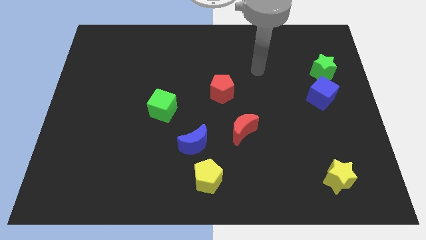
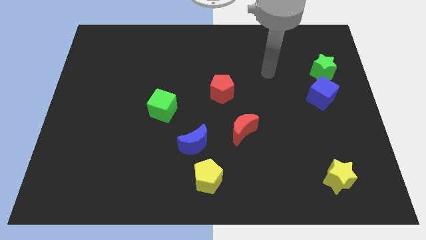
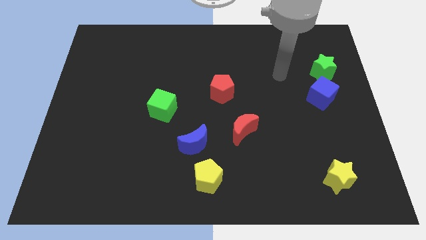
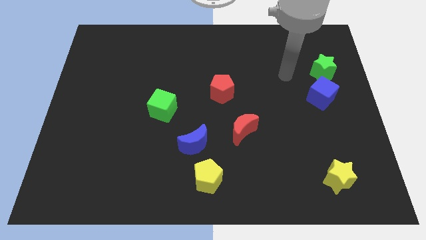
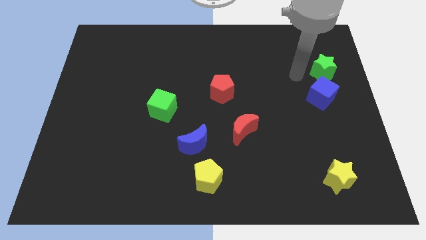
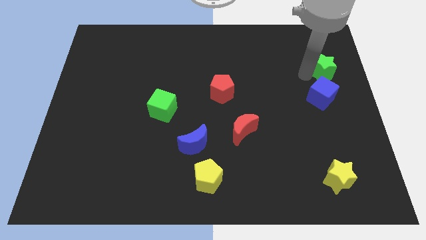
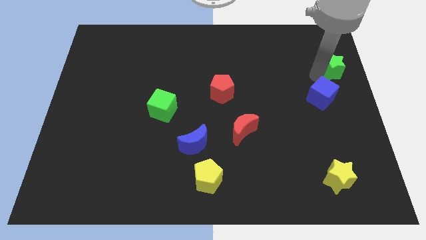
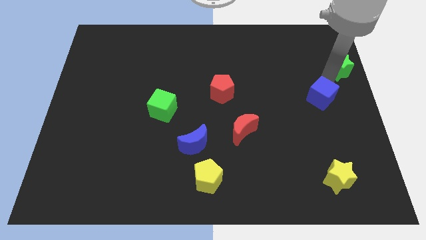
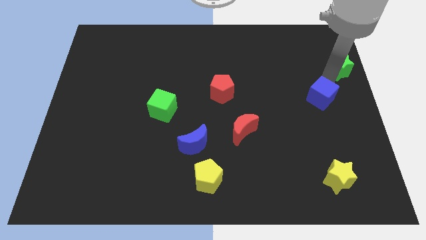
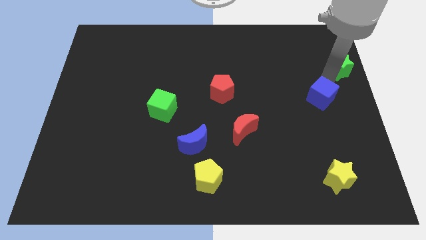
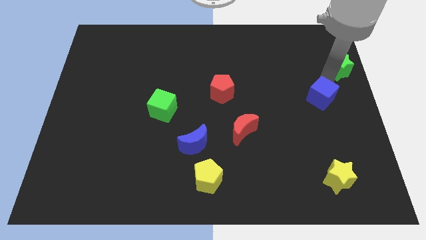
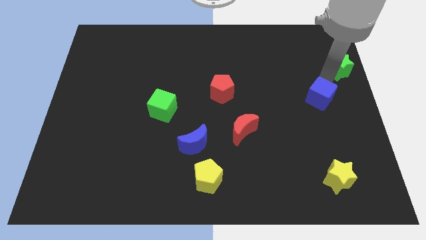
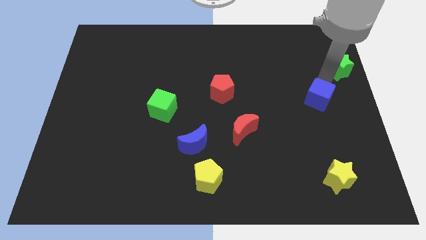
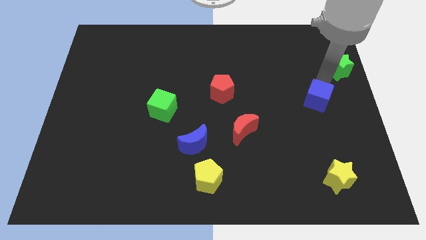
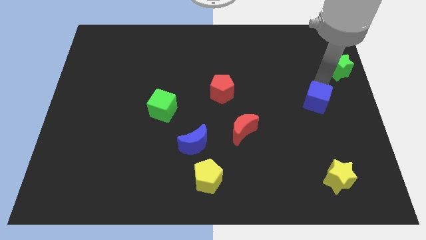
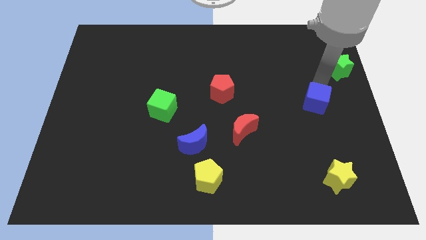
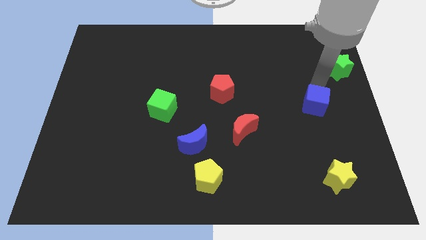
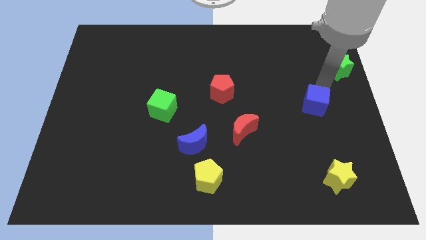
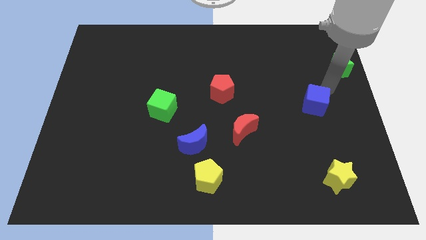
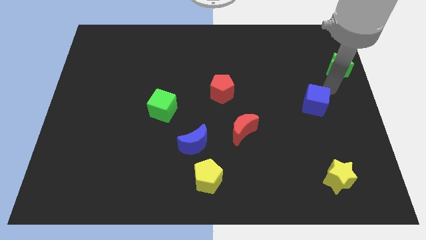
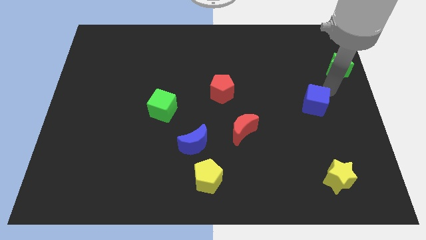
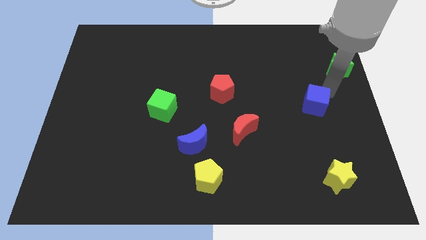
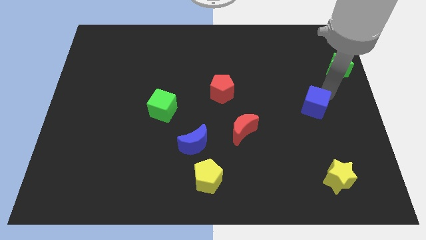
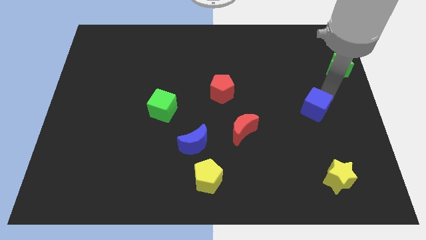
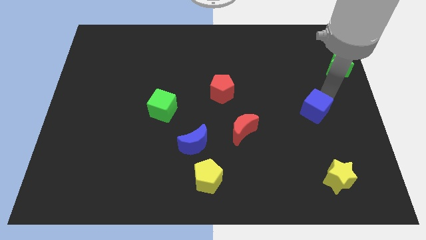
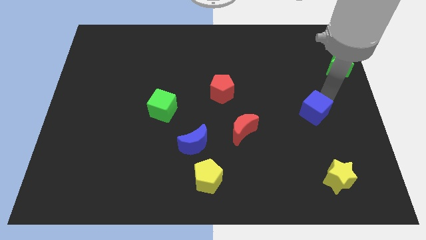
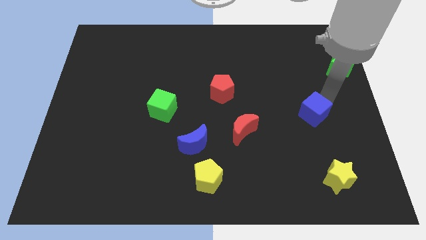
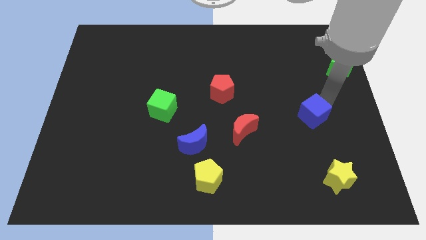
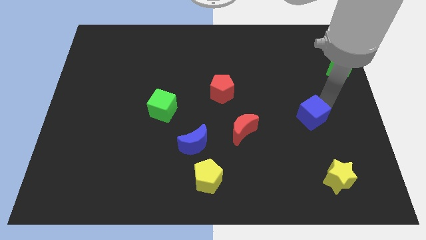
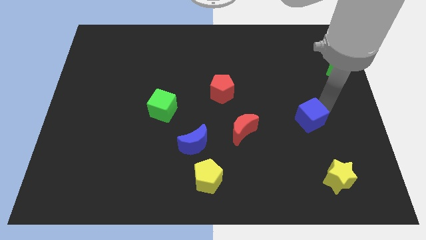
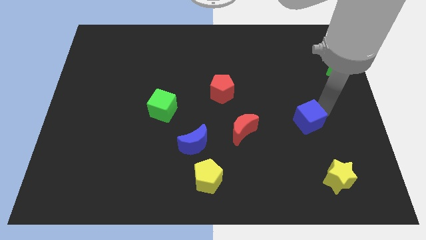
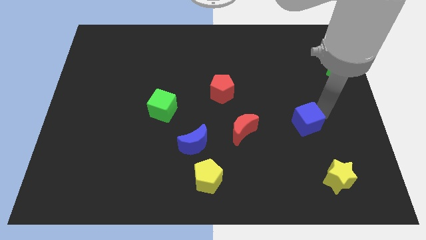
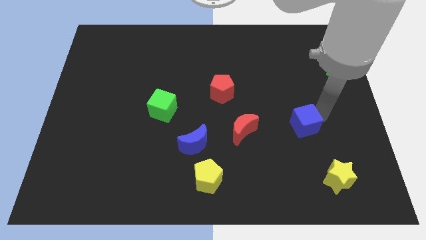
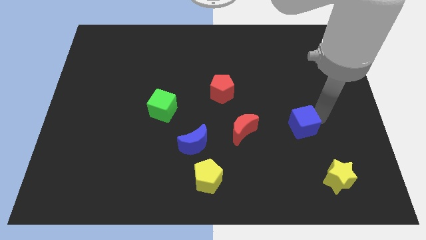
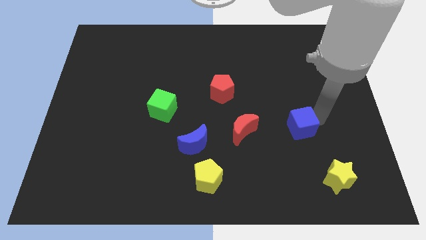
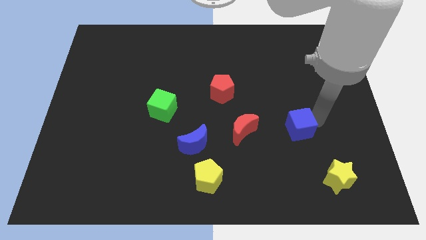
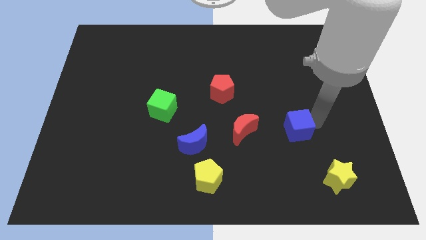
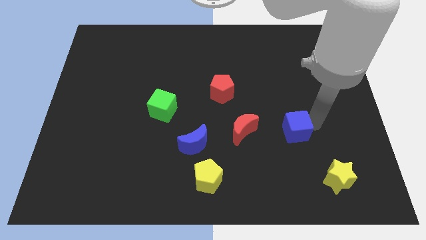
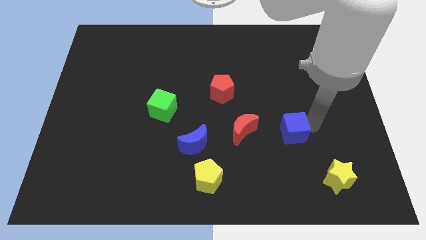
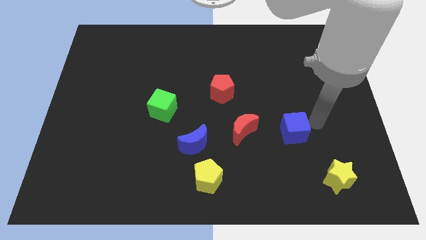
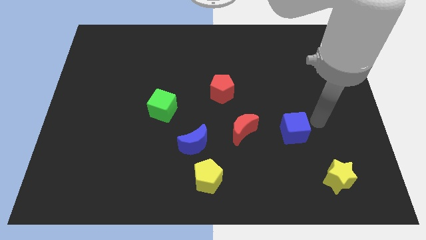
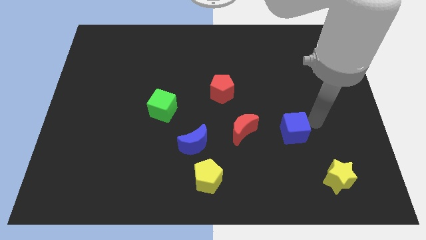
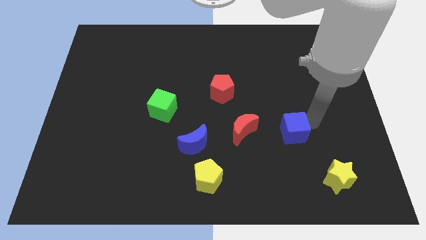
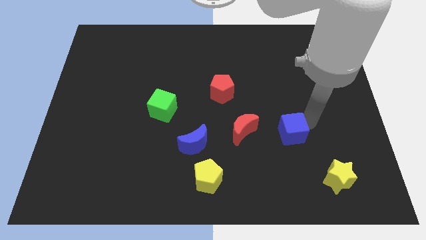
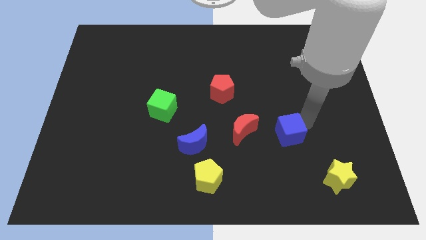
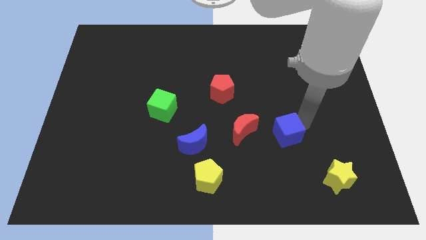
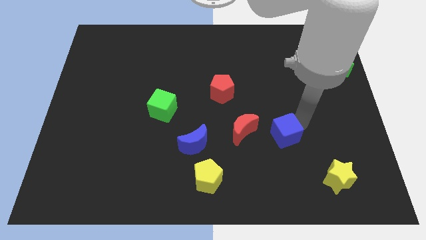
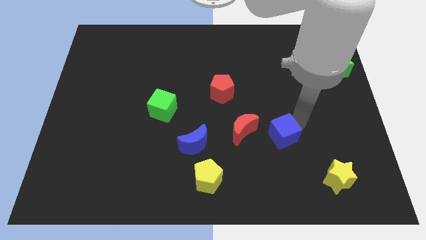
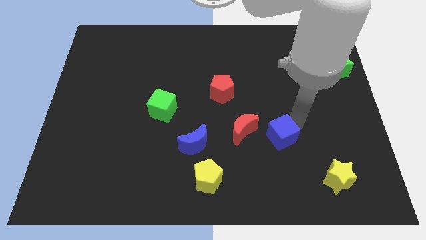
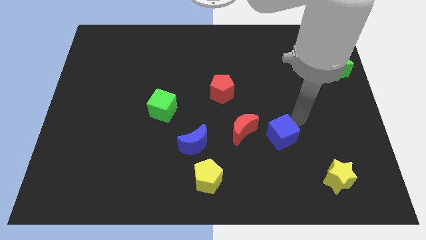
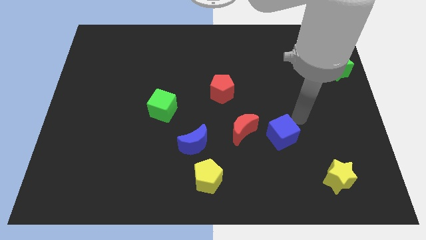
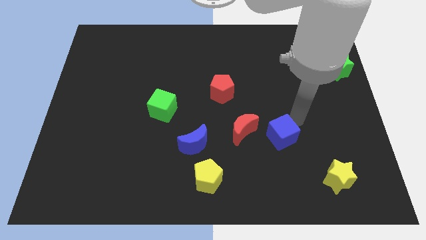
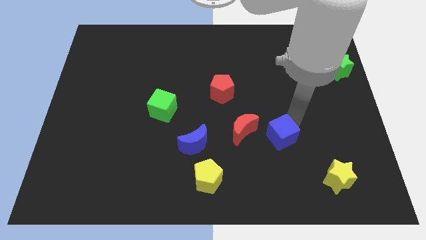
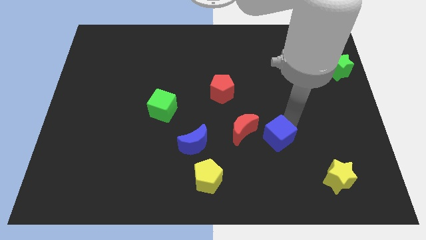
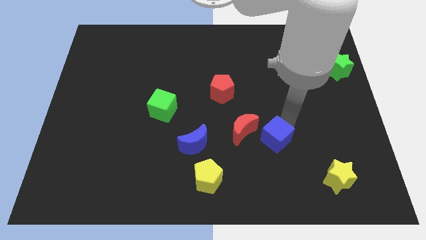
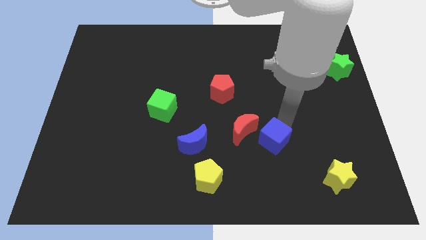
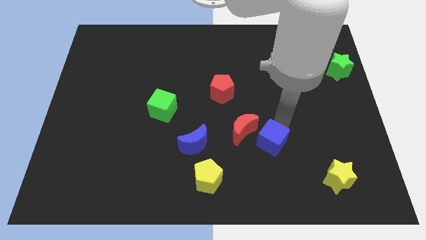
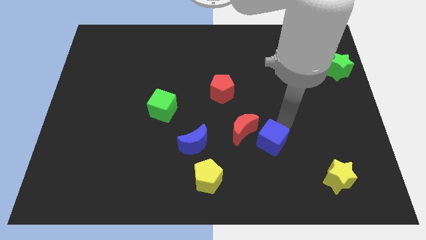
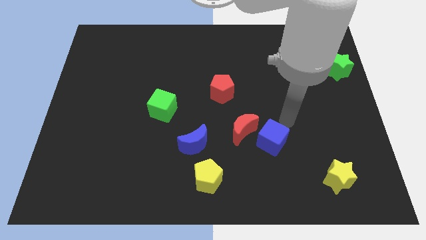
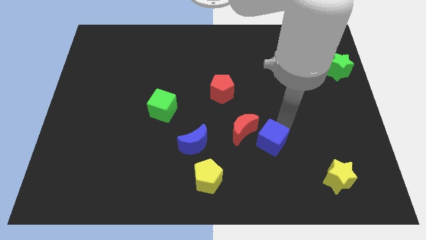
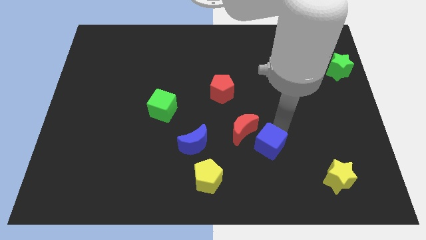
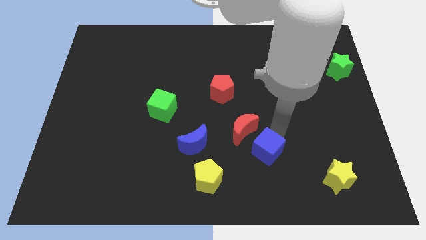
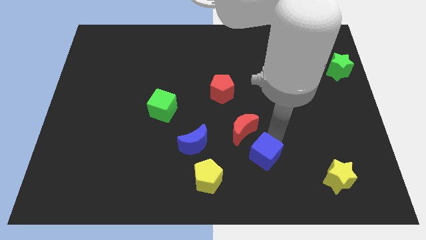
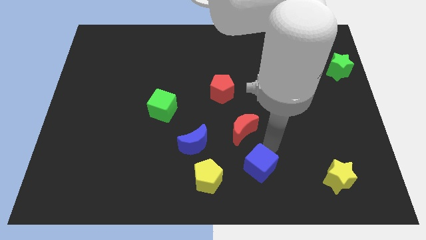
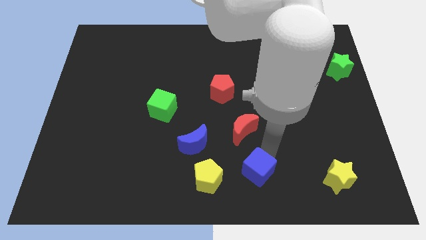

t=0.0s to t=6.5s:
put the blue cube to the bottom
